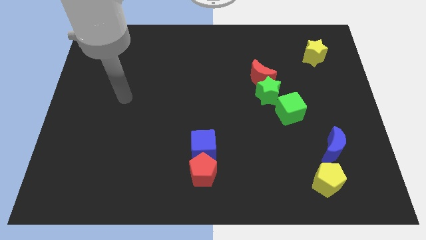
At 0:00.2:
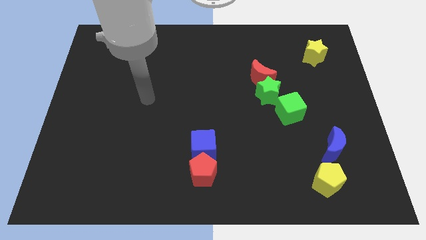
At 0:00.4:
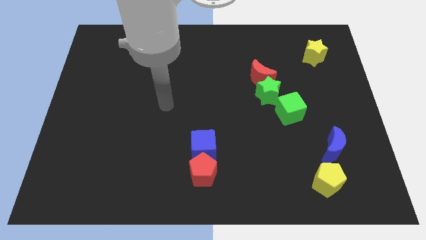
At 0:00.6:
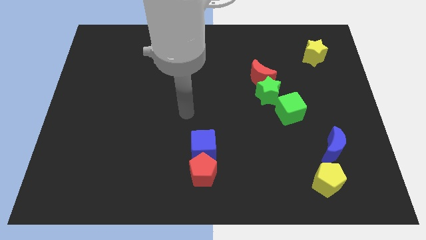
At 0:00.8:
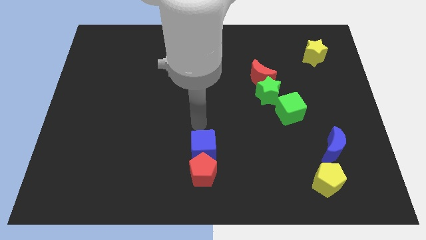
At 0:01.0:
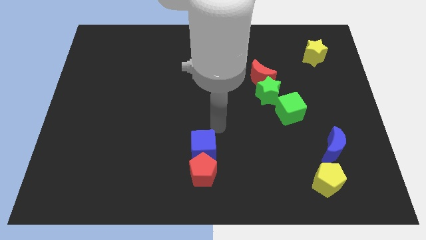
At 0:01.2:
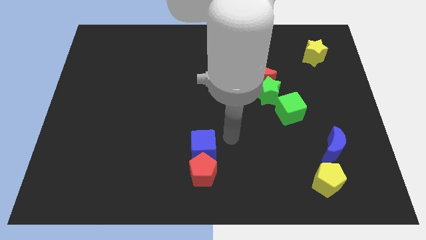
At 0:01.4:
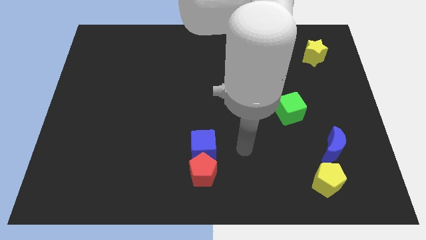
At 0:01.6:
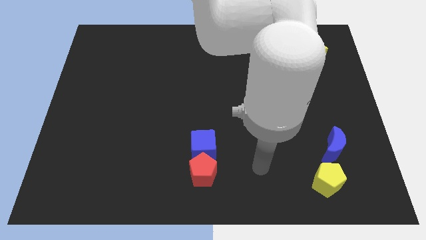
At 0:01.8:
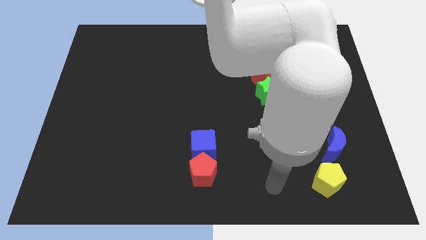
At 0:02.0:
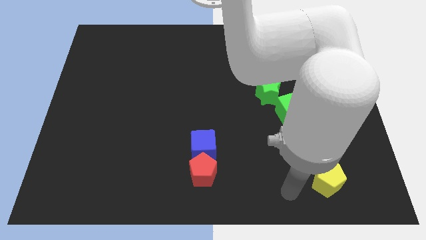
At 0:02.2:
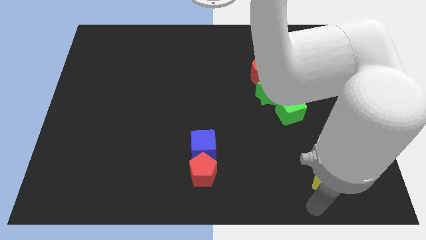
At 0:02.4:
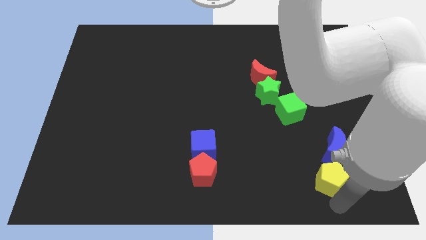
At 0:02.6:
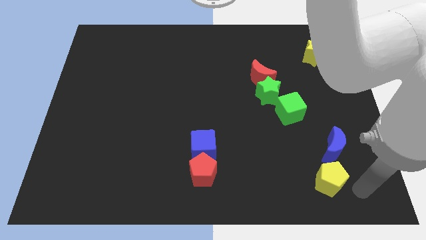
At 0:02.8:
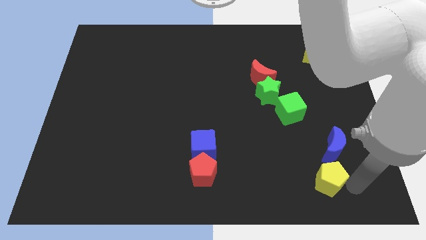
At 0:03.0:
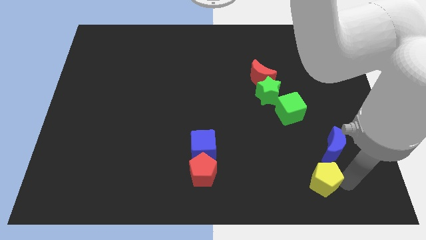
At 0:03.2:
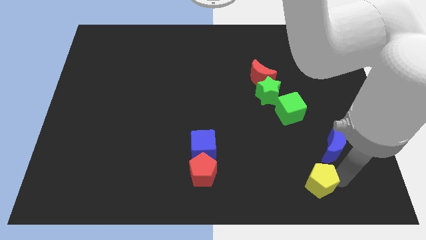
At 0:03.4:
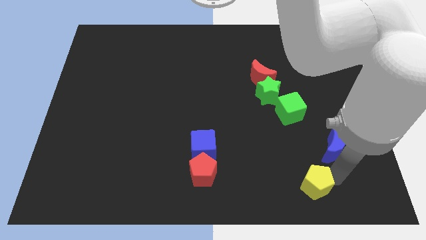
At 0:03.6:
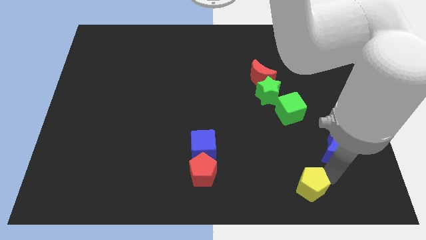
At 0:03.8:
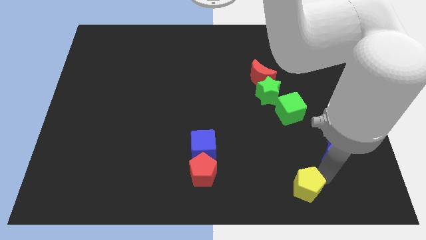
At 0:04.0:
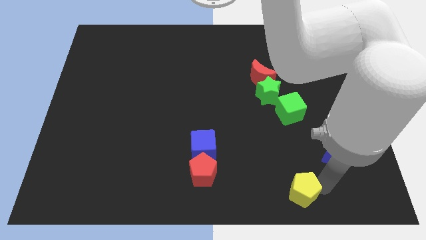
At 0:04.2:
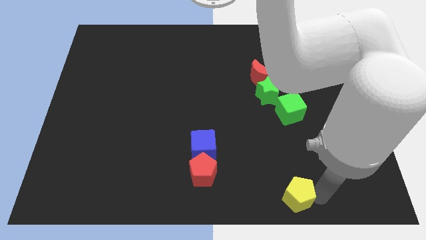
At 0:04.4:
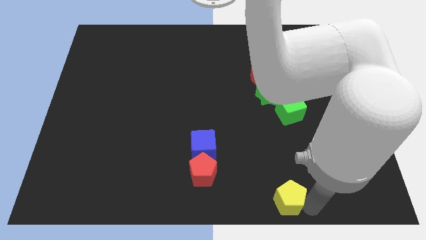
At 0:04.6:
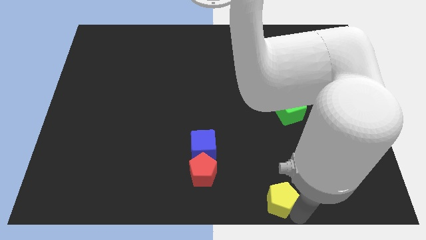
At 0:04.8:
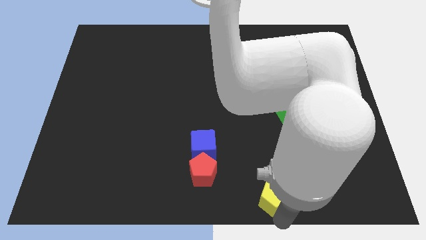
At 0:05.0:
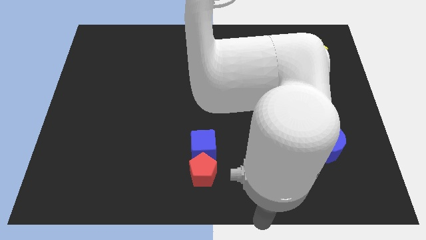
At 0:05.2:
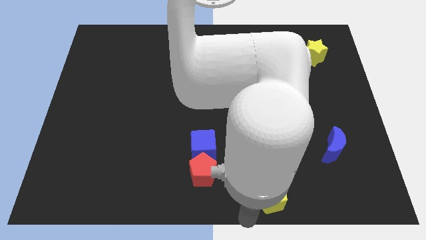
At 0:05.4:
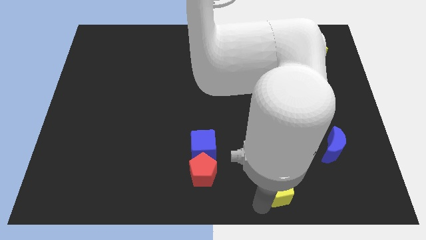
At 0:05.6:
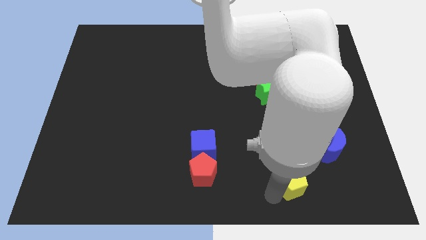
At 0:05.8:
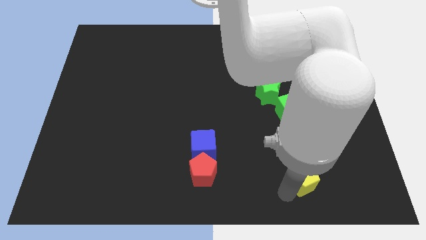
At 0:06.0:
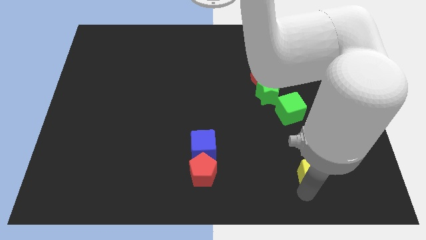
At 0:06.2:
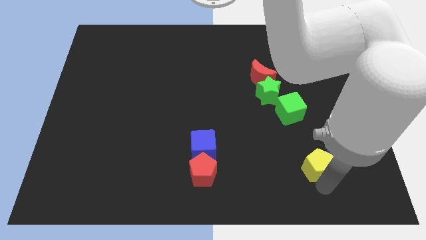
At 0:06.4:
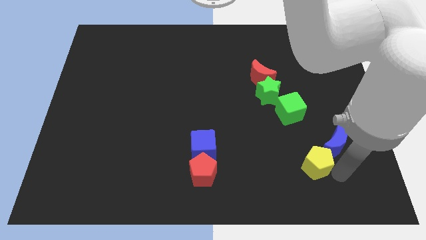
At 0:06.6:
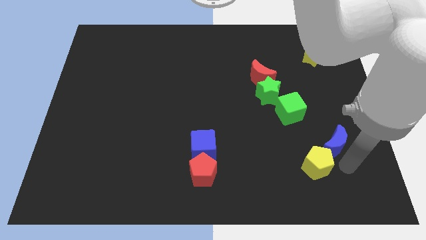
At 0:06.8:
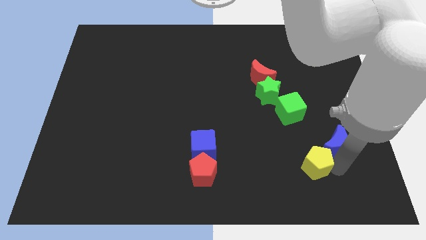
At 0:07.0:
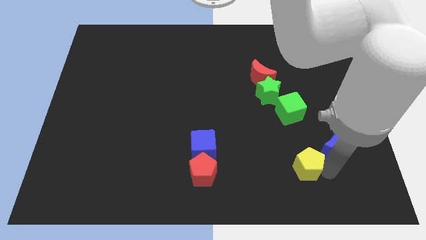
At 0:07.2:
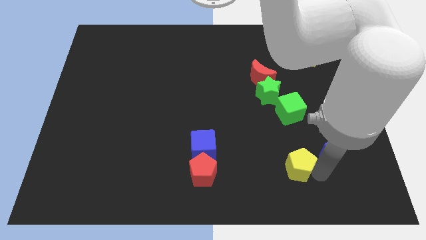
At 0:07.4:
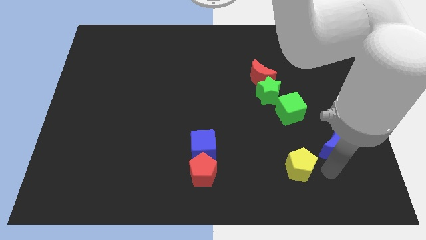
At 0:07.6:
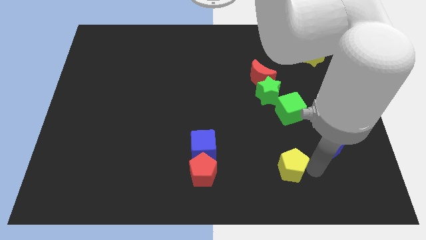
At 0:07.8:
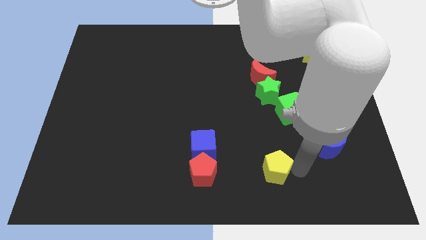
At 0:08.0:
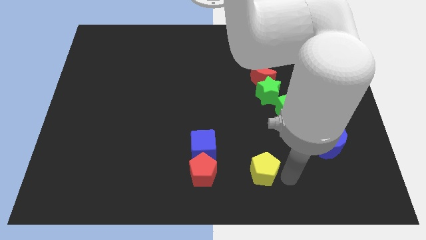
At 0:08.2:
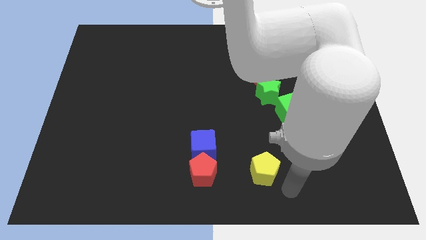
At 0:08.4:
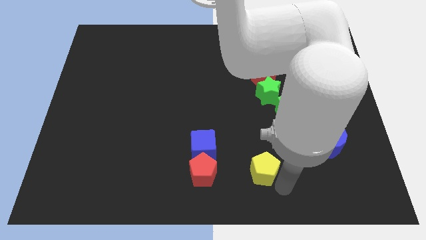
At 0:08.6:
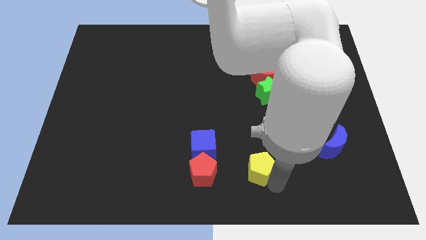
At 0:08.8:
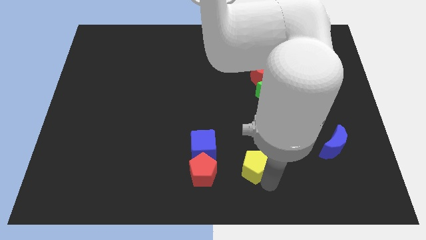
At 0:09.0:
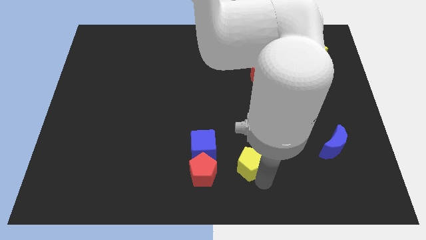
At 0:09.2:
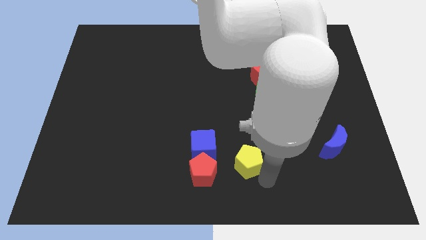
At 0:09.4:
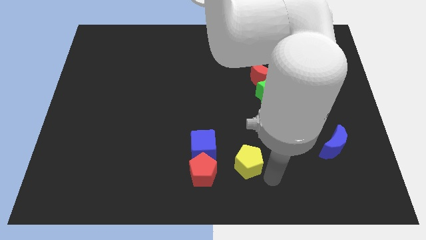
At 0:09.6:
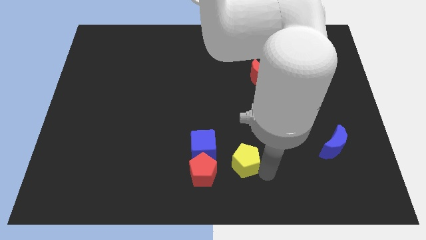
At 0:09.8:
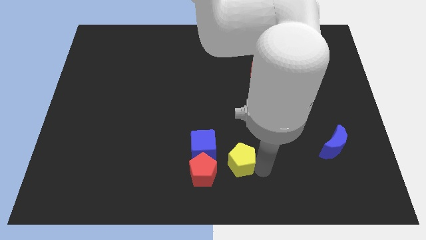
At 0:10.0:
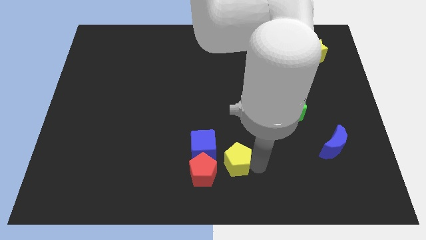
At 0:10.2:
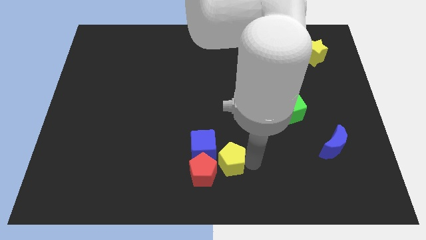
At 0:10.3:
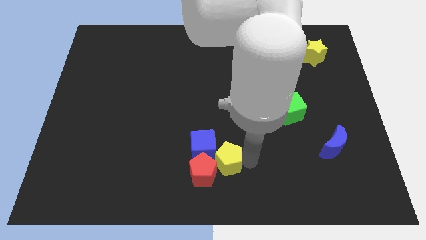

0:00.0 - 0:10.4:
push the yellow pentagon towards the blue cube

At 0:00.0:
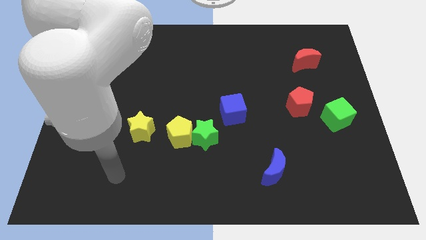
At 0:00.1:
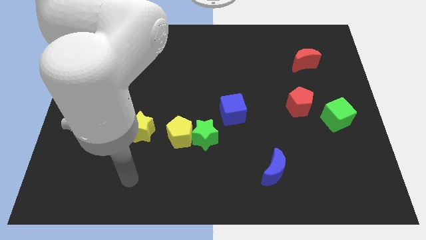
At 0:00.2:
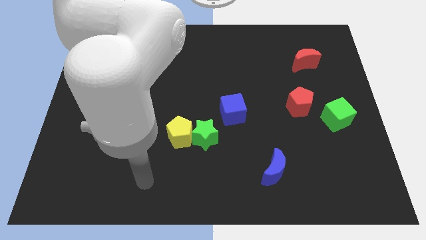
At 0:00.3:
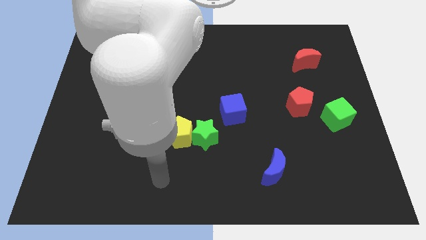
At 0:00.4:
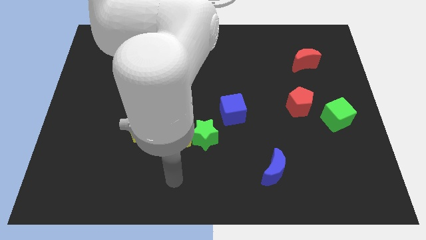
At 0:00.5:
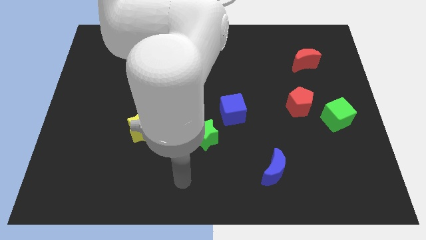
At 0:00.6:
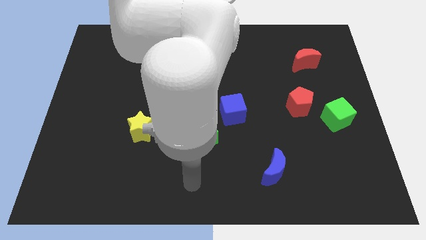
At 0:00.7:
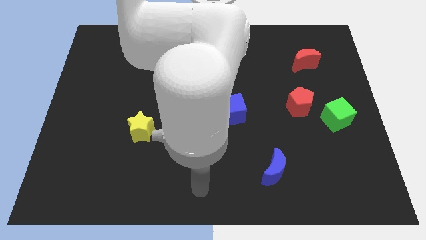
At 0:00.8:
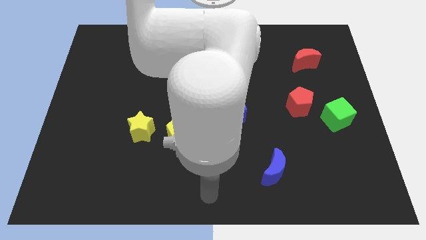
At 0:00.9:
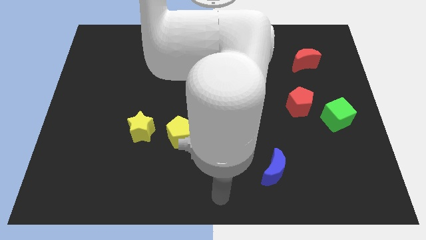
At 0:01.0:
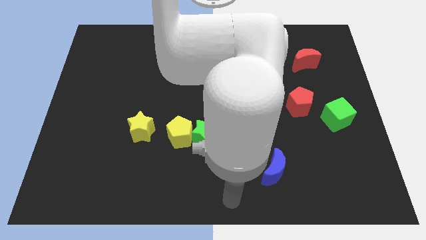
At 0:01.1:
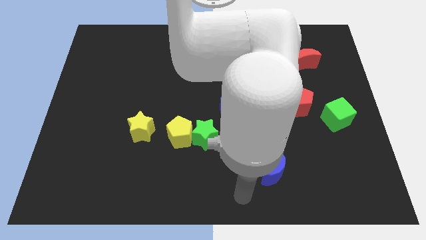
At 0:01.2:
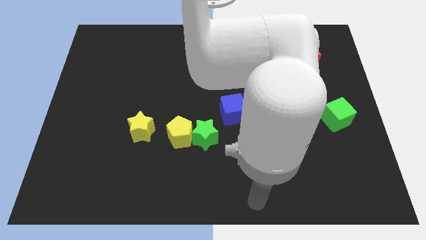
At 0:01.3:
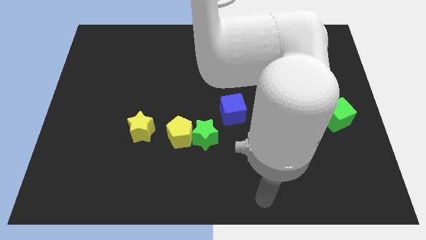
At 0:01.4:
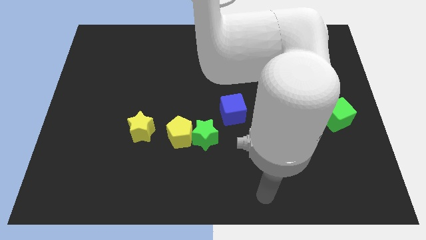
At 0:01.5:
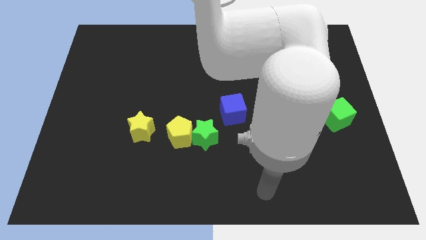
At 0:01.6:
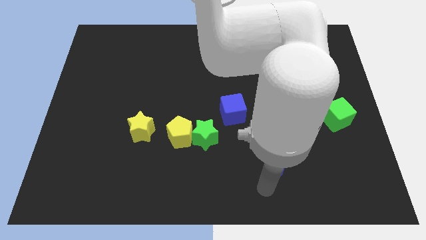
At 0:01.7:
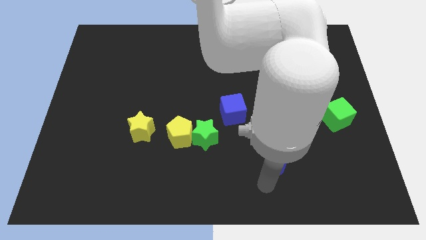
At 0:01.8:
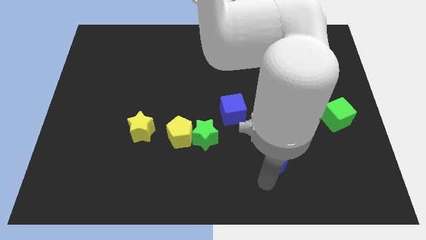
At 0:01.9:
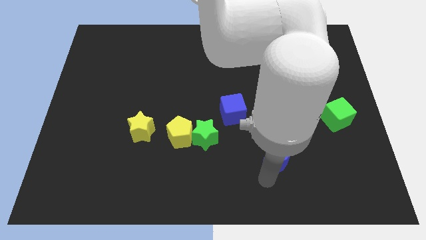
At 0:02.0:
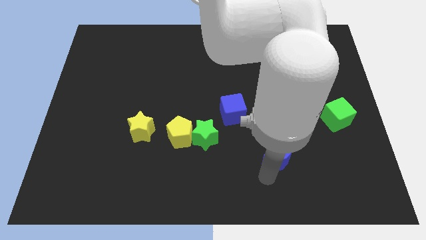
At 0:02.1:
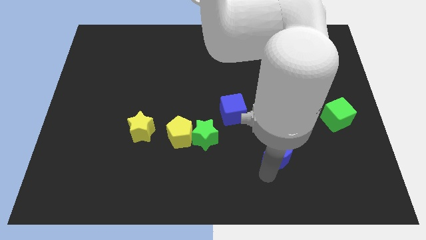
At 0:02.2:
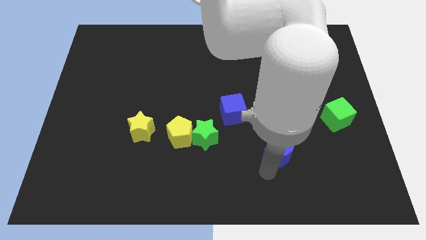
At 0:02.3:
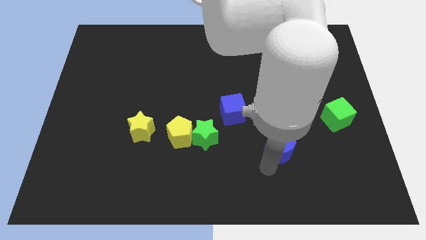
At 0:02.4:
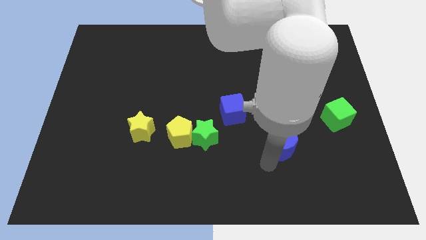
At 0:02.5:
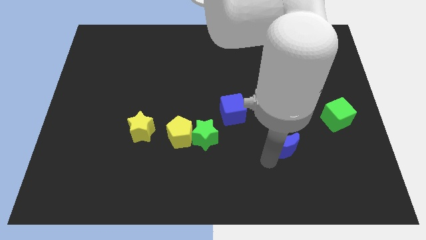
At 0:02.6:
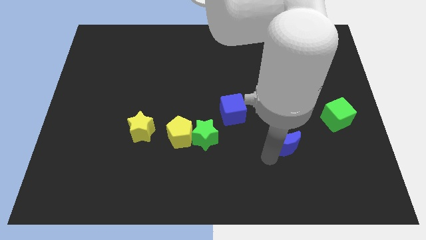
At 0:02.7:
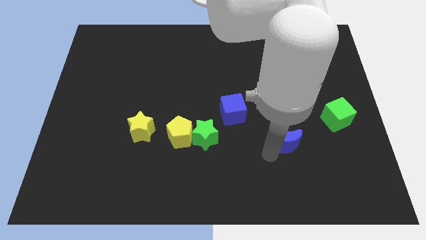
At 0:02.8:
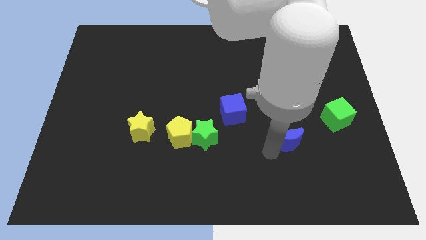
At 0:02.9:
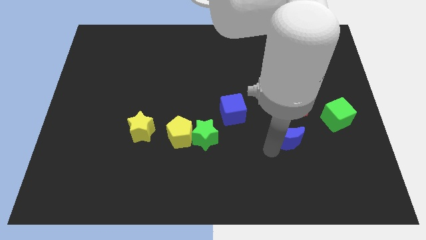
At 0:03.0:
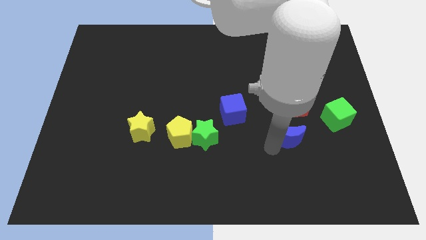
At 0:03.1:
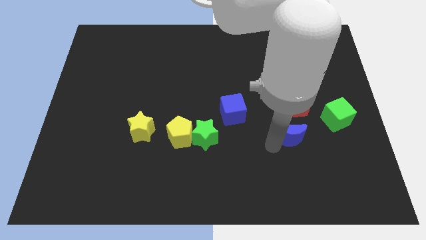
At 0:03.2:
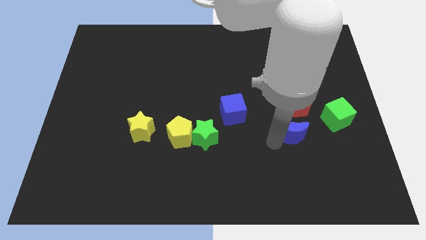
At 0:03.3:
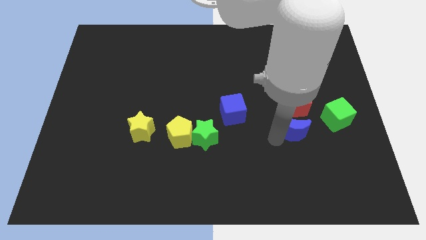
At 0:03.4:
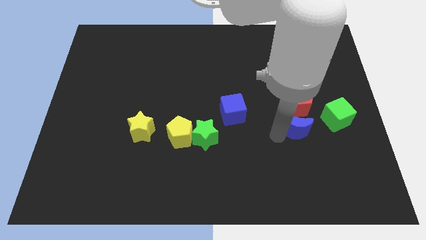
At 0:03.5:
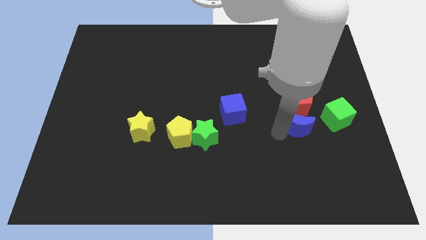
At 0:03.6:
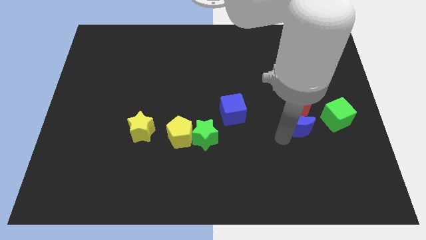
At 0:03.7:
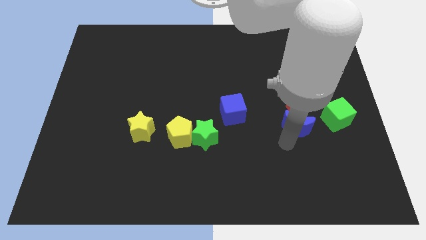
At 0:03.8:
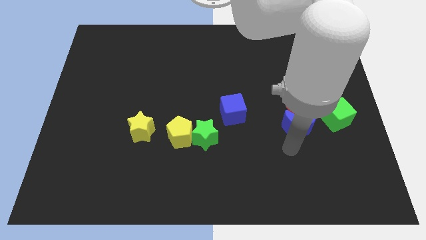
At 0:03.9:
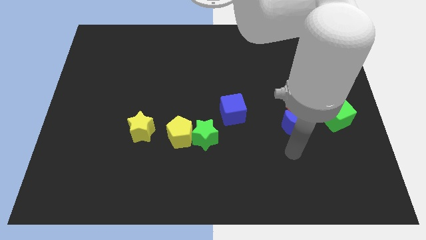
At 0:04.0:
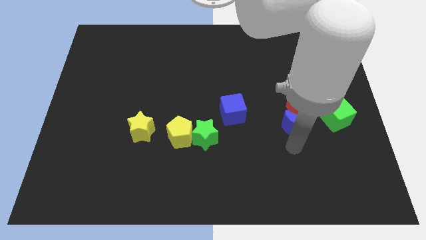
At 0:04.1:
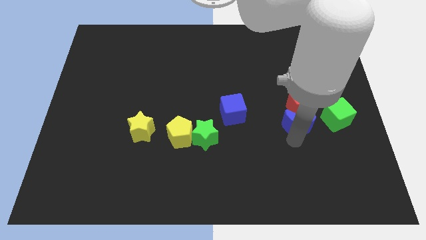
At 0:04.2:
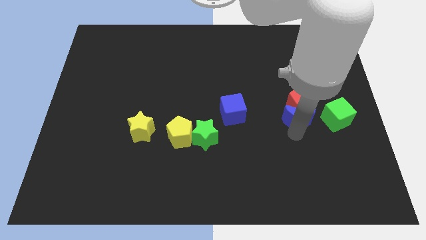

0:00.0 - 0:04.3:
slide the blue moon to the red pentagon
